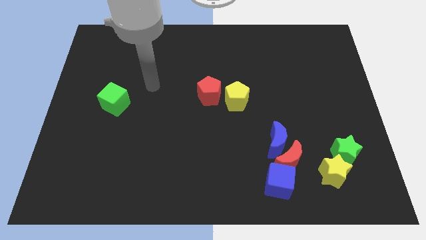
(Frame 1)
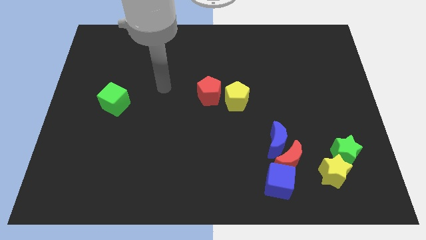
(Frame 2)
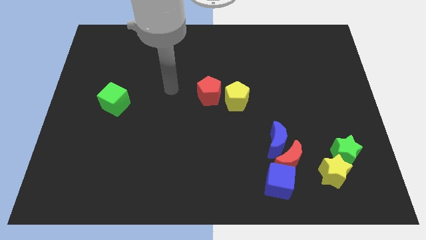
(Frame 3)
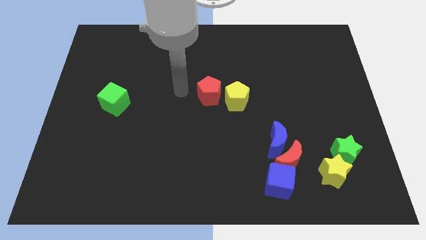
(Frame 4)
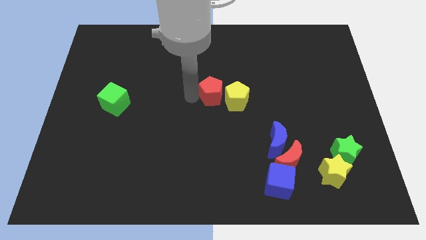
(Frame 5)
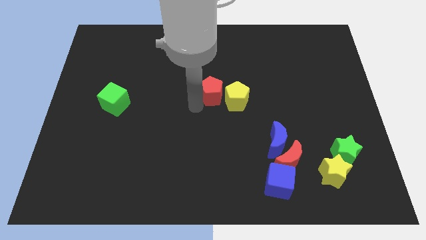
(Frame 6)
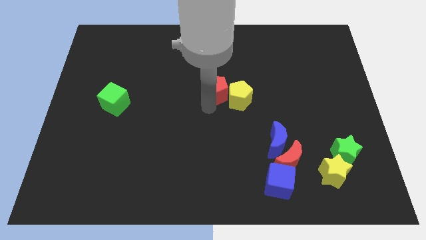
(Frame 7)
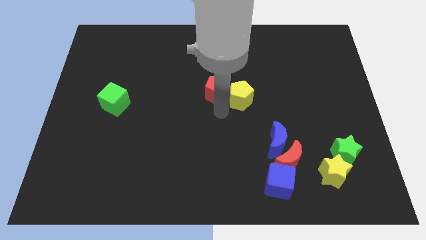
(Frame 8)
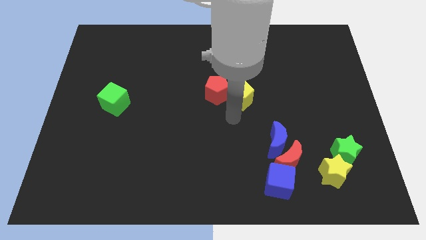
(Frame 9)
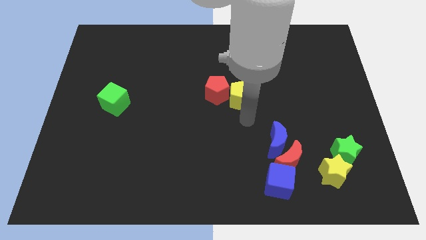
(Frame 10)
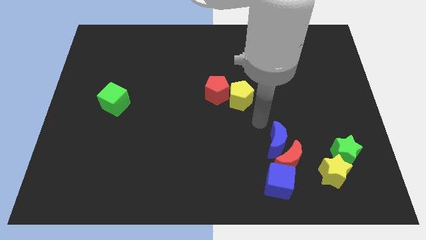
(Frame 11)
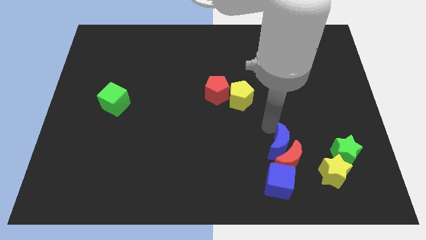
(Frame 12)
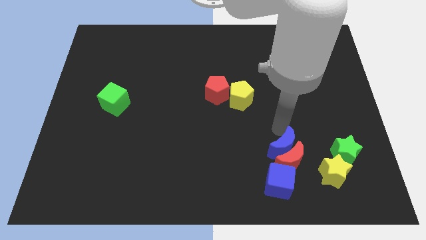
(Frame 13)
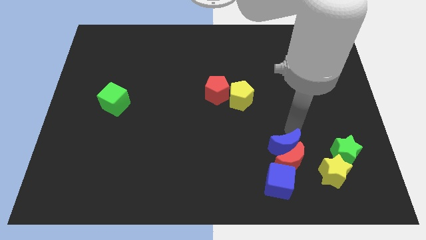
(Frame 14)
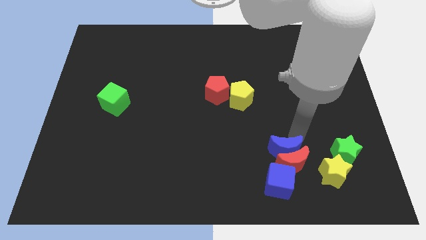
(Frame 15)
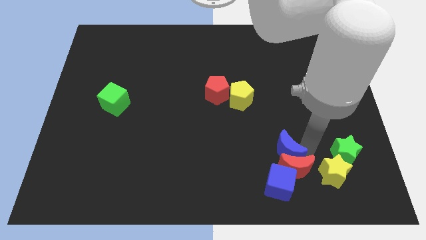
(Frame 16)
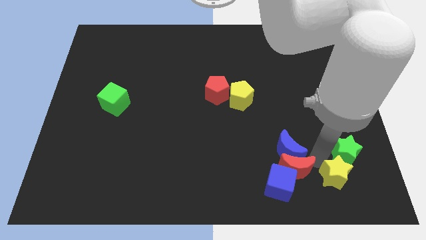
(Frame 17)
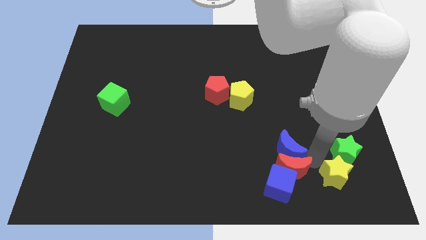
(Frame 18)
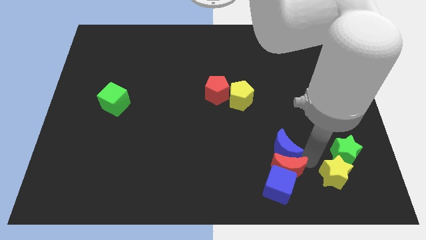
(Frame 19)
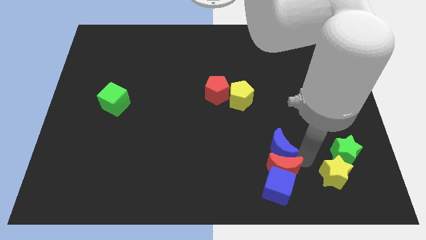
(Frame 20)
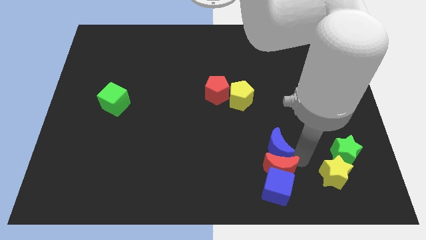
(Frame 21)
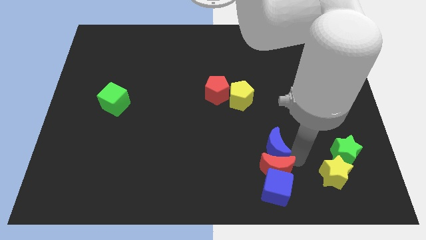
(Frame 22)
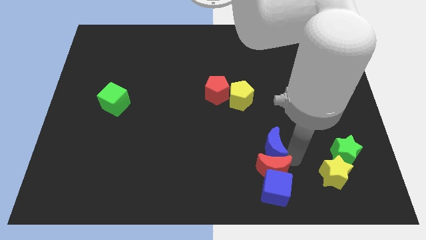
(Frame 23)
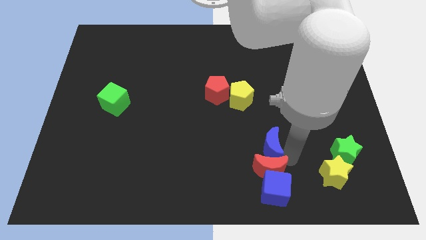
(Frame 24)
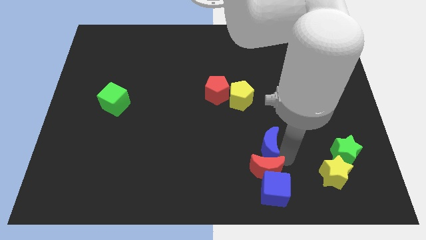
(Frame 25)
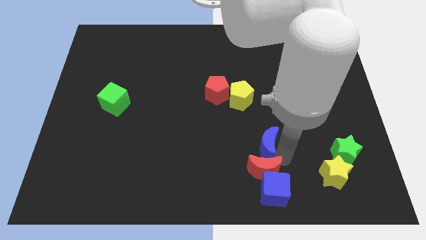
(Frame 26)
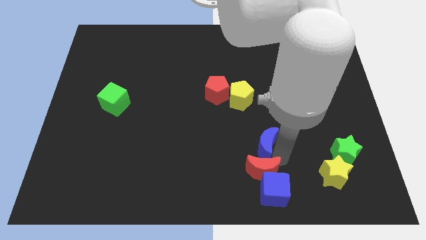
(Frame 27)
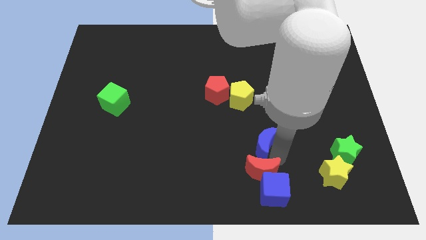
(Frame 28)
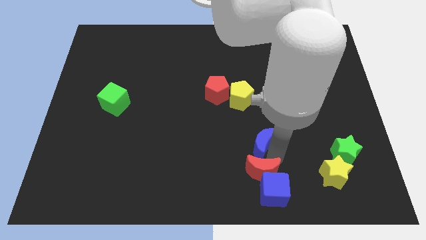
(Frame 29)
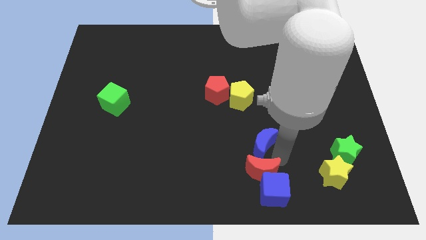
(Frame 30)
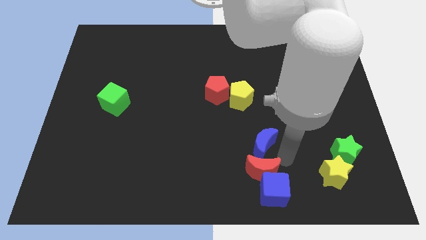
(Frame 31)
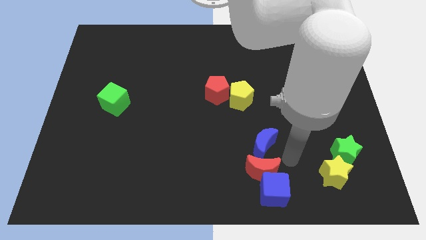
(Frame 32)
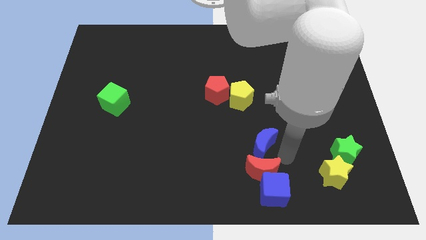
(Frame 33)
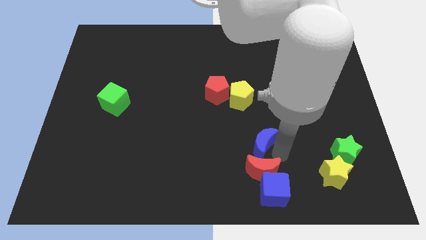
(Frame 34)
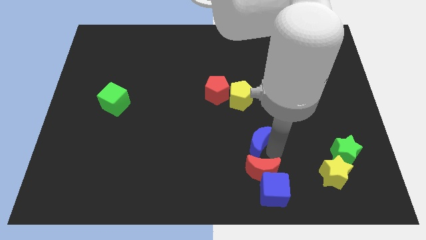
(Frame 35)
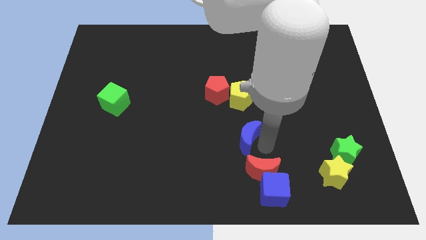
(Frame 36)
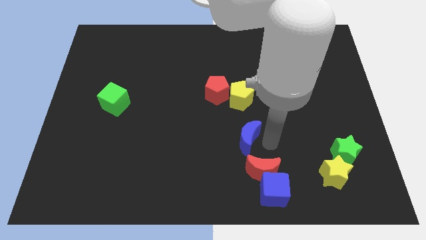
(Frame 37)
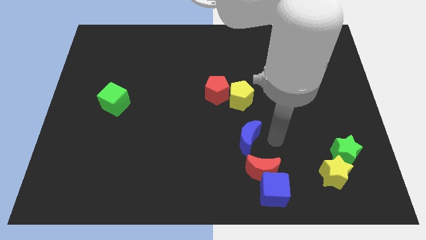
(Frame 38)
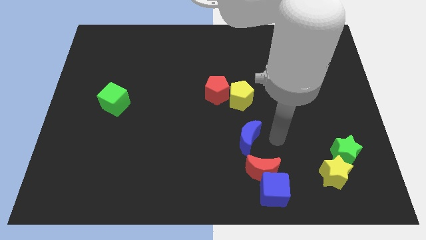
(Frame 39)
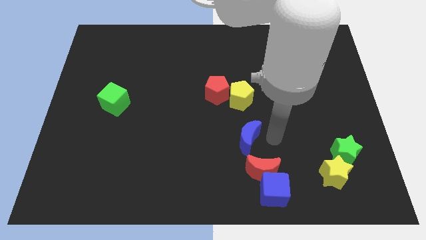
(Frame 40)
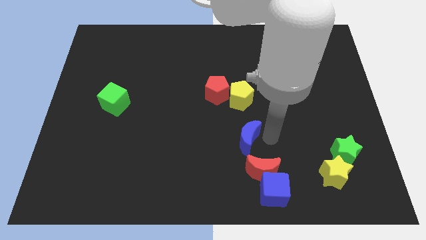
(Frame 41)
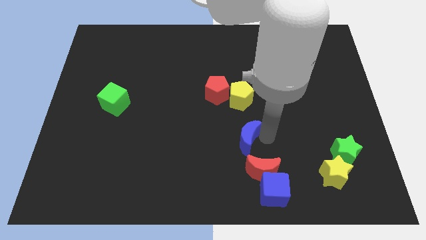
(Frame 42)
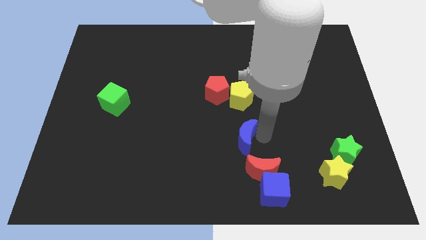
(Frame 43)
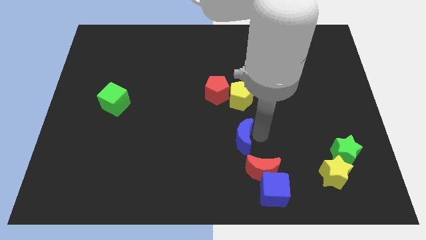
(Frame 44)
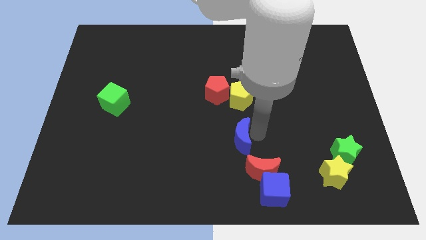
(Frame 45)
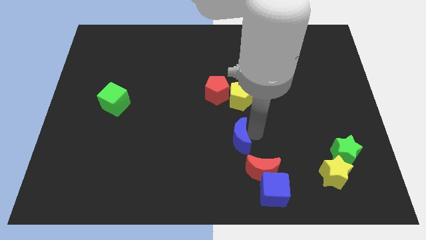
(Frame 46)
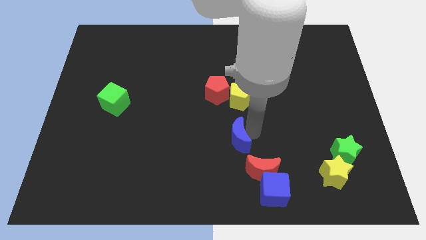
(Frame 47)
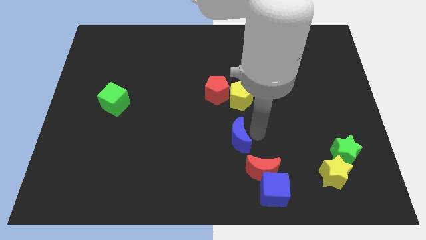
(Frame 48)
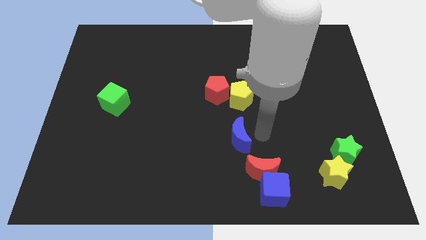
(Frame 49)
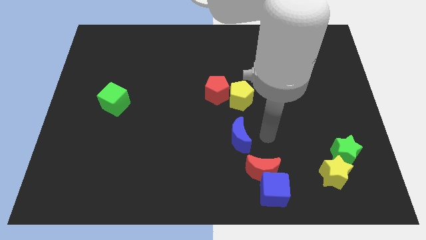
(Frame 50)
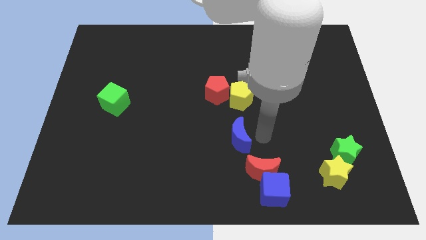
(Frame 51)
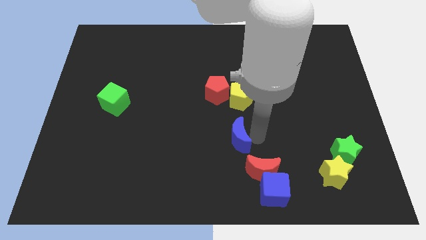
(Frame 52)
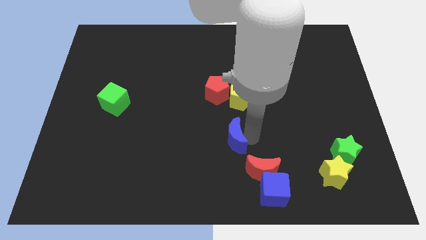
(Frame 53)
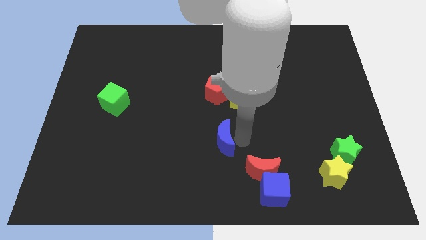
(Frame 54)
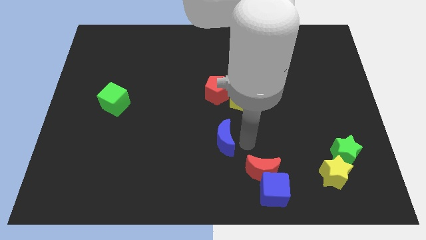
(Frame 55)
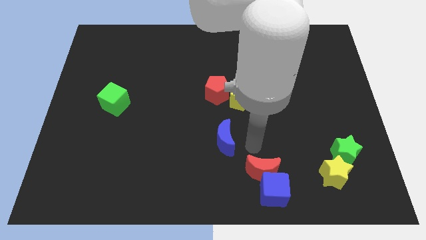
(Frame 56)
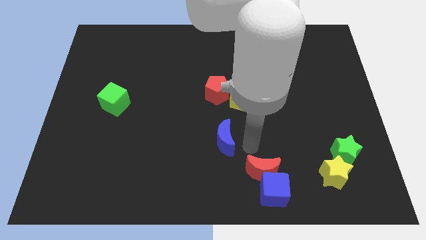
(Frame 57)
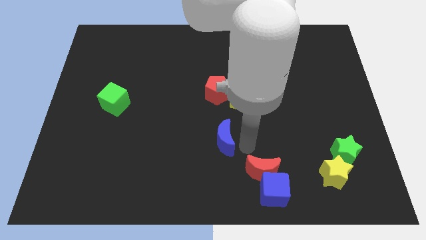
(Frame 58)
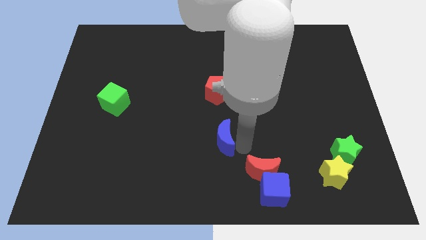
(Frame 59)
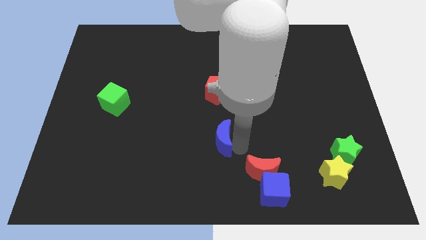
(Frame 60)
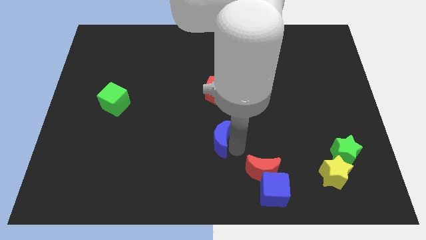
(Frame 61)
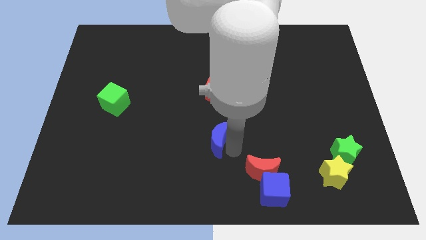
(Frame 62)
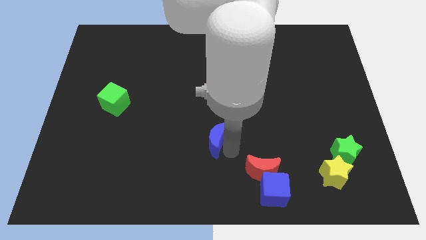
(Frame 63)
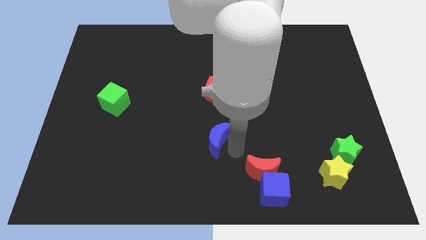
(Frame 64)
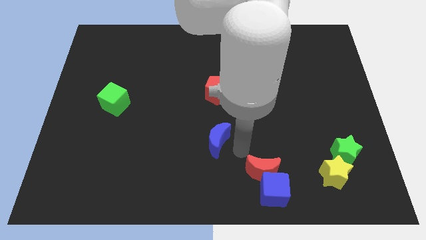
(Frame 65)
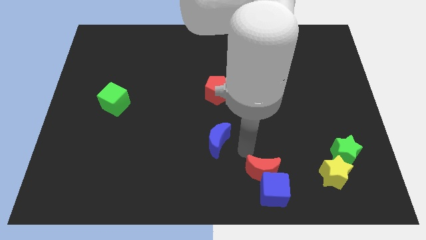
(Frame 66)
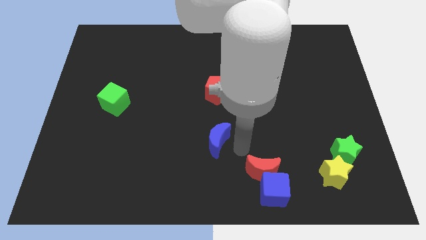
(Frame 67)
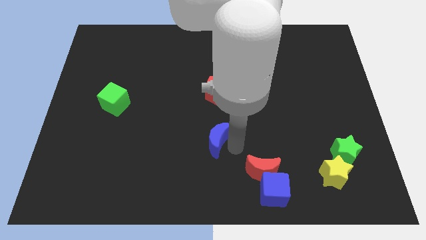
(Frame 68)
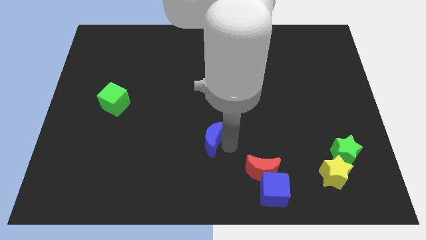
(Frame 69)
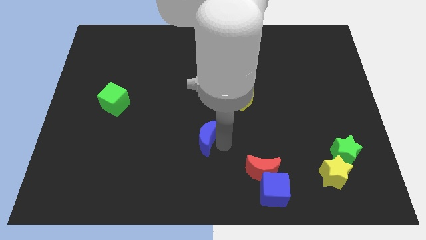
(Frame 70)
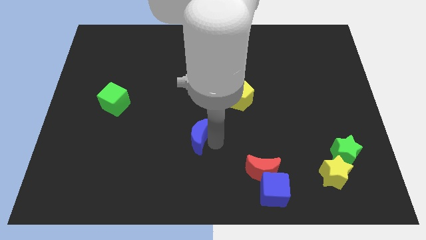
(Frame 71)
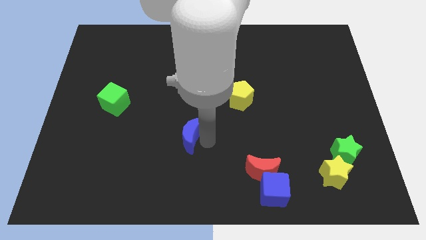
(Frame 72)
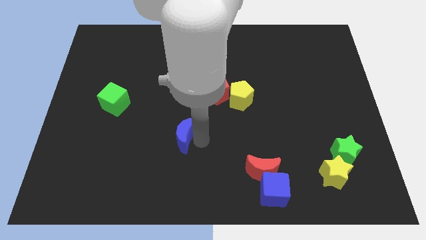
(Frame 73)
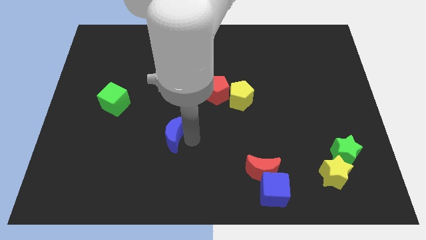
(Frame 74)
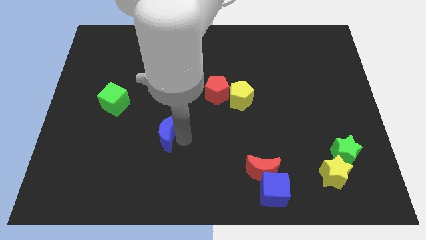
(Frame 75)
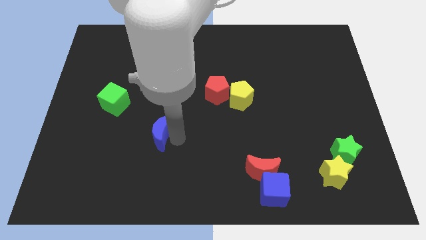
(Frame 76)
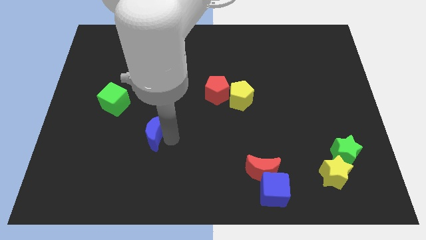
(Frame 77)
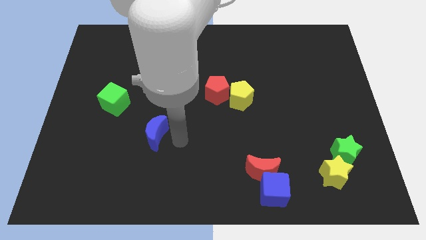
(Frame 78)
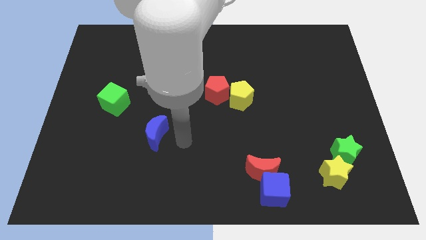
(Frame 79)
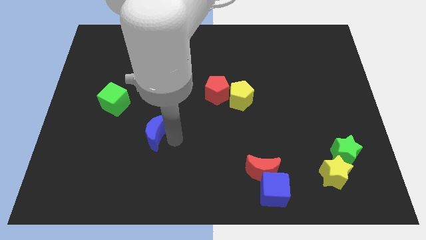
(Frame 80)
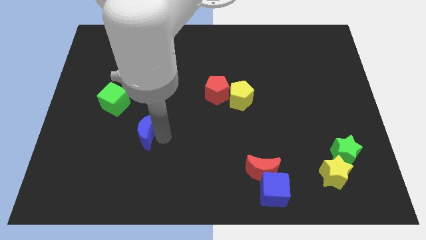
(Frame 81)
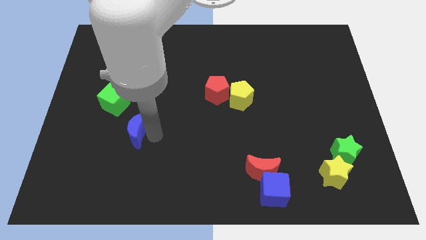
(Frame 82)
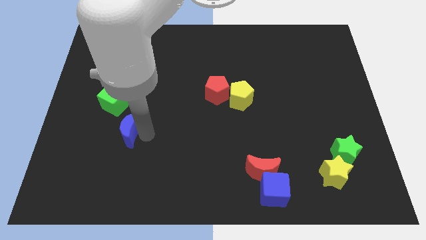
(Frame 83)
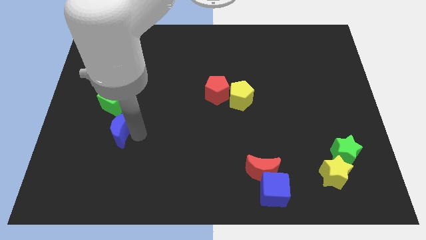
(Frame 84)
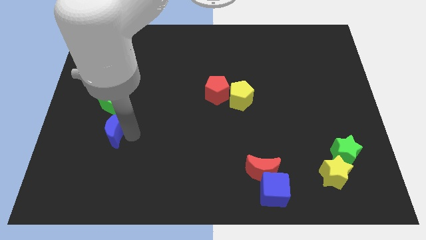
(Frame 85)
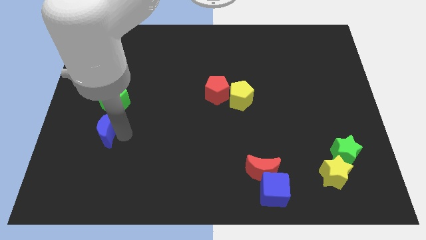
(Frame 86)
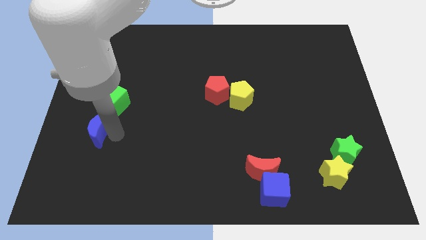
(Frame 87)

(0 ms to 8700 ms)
move the blue moon diagonally down and to the left of the green cube

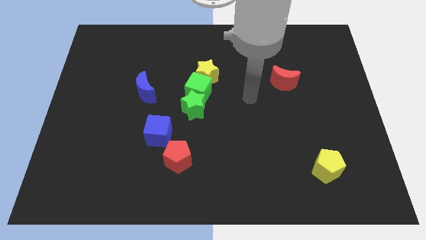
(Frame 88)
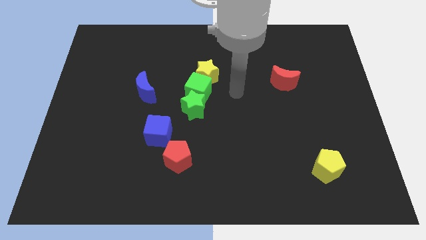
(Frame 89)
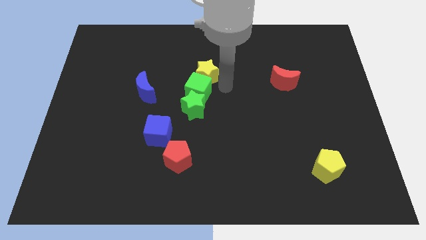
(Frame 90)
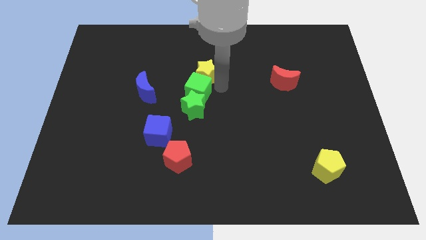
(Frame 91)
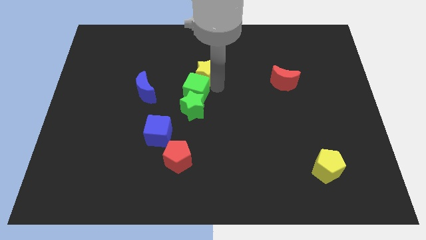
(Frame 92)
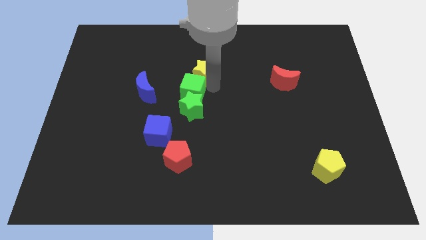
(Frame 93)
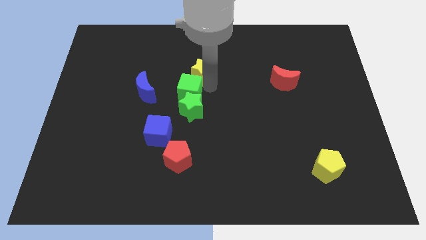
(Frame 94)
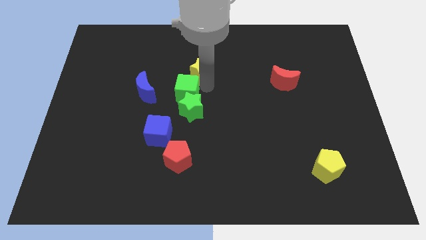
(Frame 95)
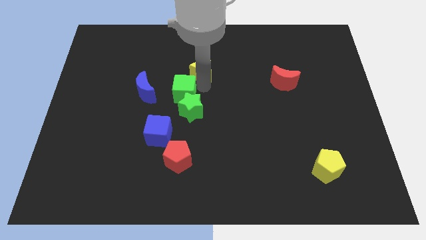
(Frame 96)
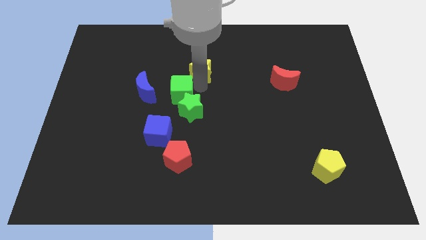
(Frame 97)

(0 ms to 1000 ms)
push the green cube to the top side of the blue cube
